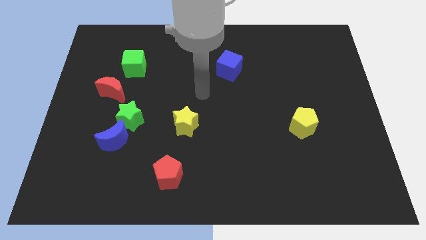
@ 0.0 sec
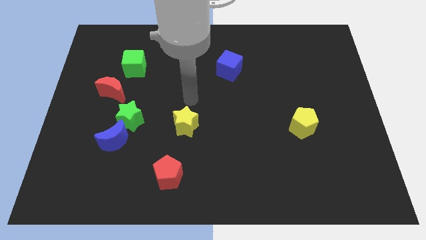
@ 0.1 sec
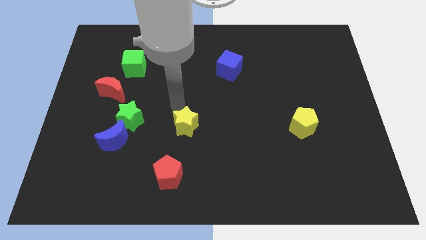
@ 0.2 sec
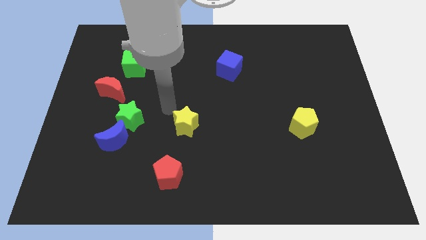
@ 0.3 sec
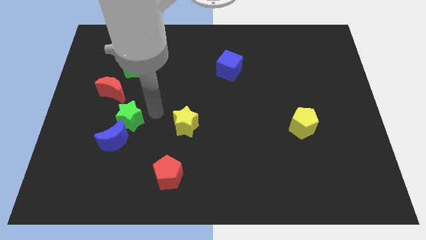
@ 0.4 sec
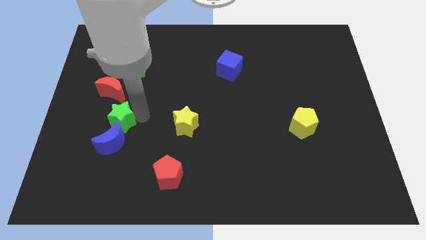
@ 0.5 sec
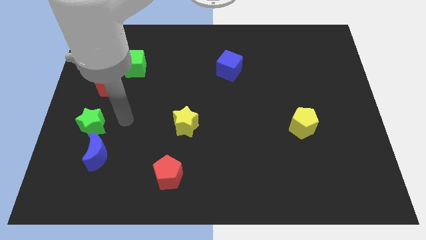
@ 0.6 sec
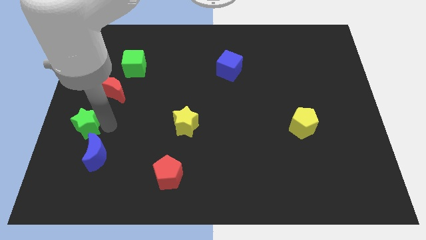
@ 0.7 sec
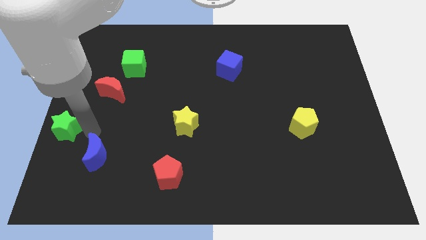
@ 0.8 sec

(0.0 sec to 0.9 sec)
separate the blue moon from the green star

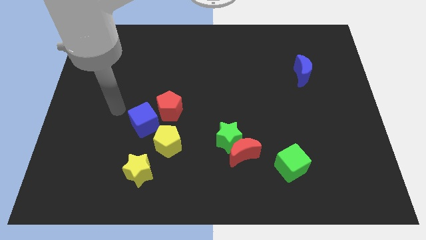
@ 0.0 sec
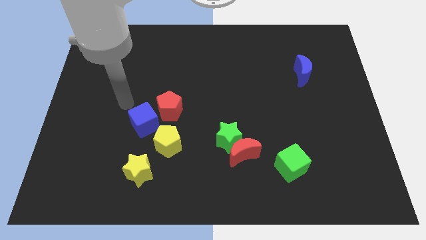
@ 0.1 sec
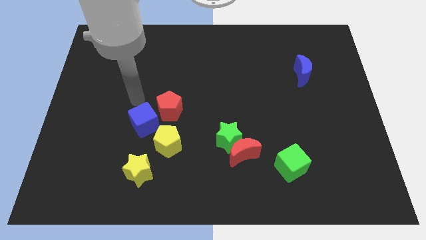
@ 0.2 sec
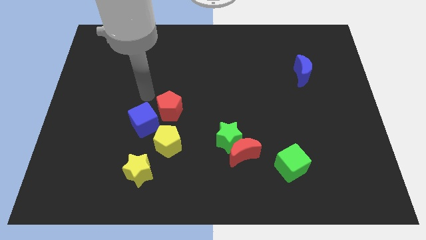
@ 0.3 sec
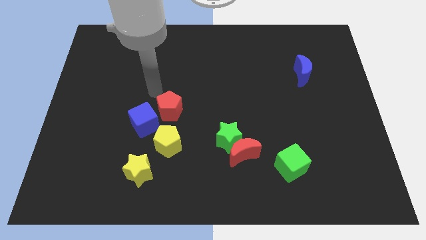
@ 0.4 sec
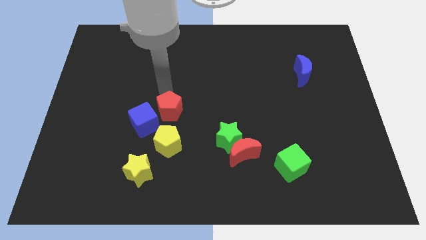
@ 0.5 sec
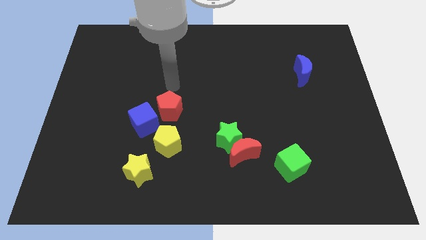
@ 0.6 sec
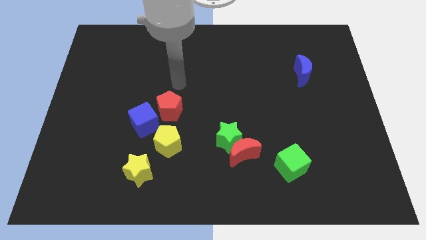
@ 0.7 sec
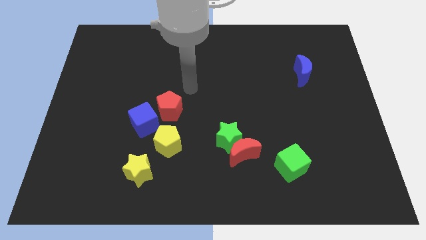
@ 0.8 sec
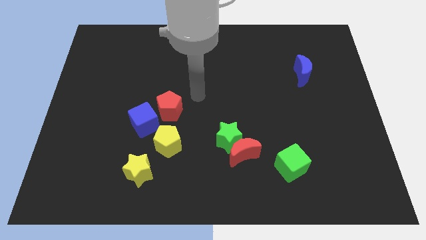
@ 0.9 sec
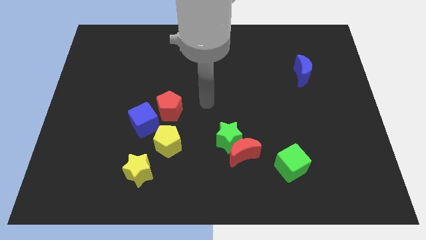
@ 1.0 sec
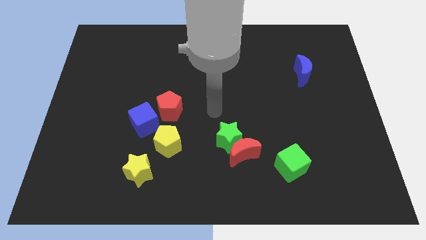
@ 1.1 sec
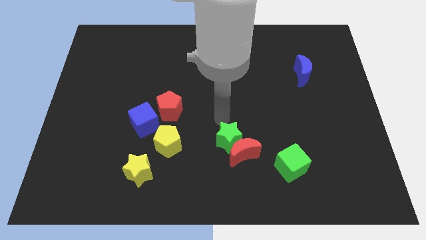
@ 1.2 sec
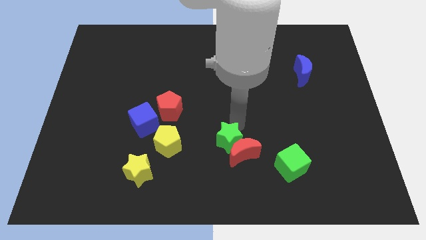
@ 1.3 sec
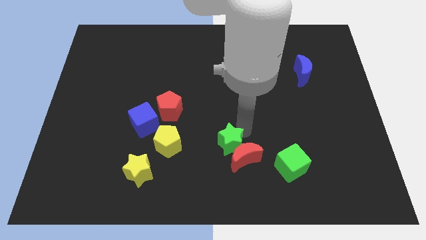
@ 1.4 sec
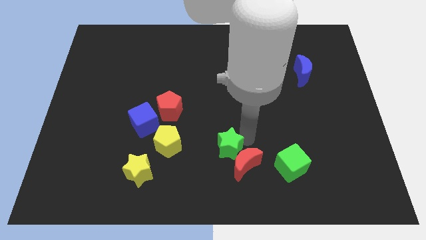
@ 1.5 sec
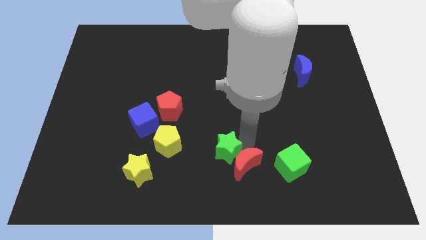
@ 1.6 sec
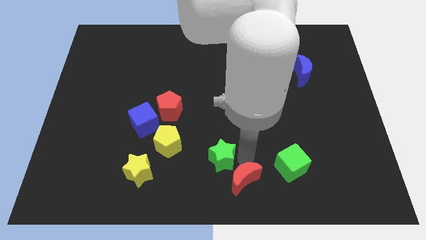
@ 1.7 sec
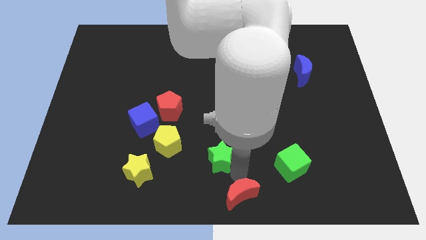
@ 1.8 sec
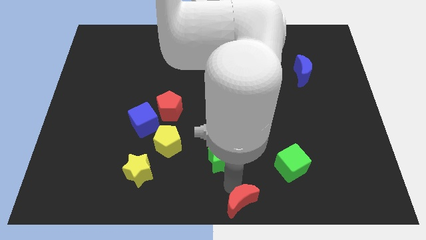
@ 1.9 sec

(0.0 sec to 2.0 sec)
move the green star away from the red moon

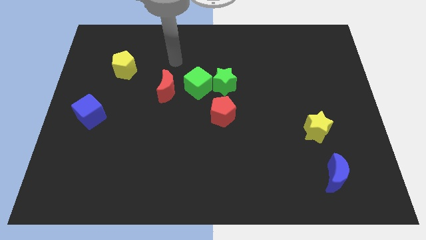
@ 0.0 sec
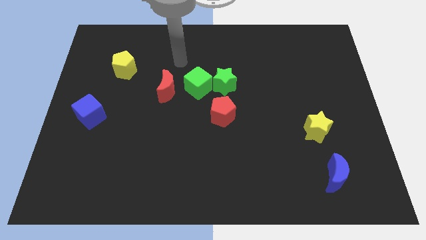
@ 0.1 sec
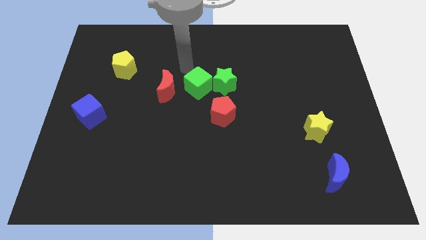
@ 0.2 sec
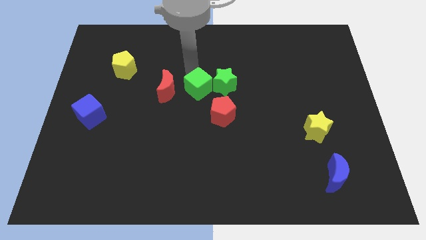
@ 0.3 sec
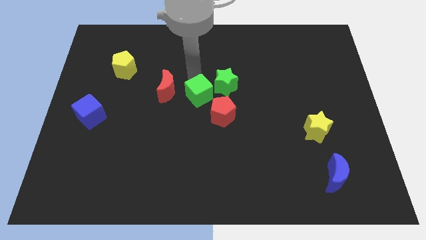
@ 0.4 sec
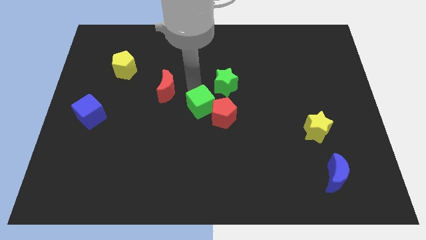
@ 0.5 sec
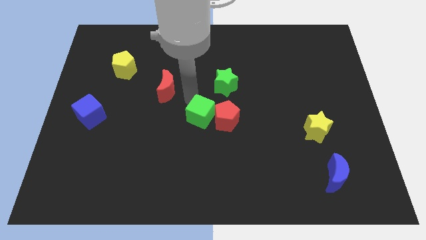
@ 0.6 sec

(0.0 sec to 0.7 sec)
separate the red moon from the green cube

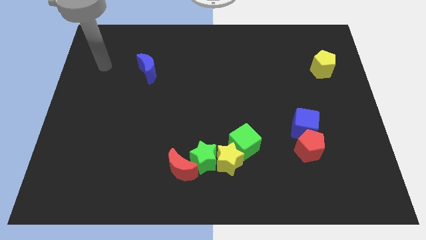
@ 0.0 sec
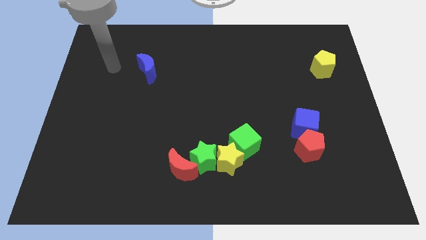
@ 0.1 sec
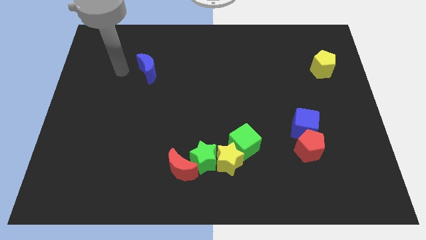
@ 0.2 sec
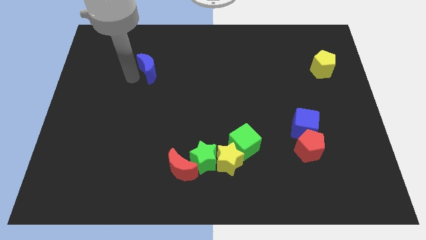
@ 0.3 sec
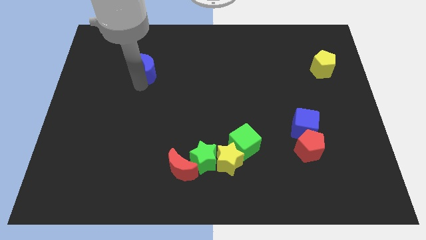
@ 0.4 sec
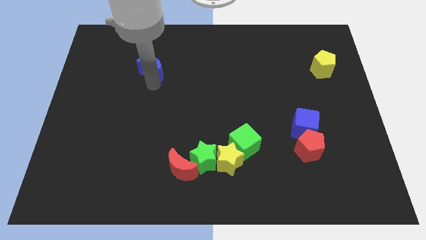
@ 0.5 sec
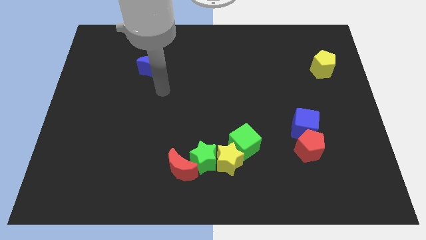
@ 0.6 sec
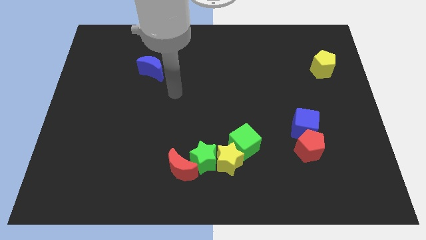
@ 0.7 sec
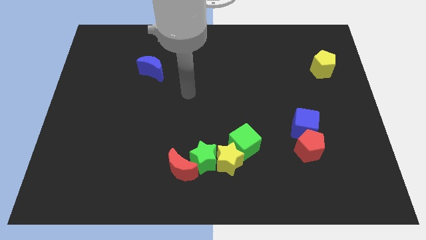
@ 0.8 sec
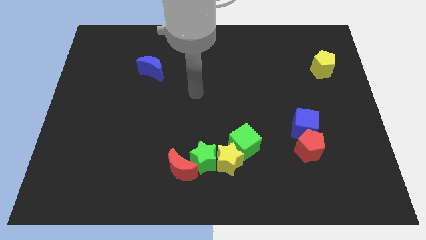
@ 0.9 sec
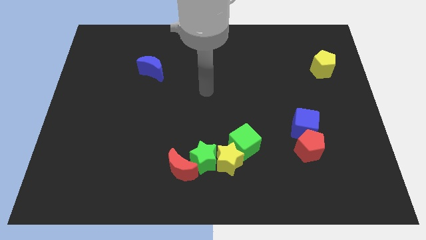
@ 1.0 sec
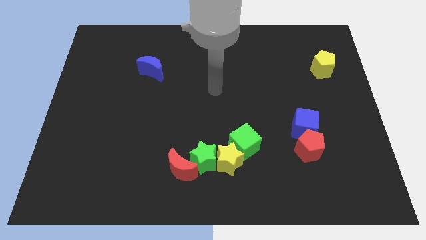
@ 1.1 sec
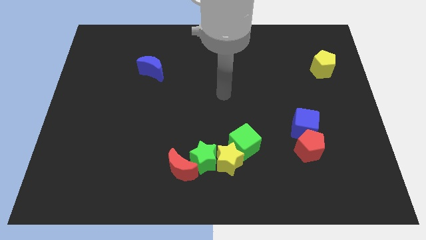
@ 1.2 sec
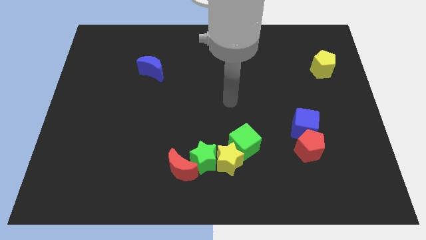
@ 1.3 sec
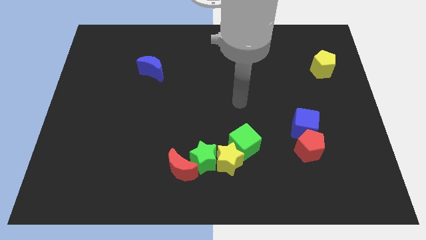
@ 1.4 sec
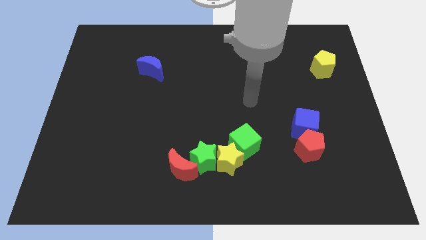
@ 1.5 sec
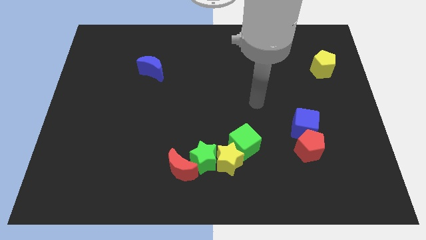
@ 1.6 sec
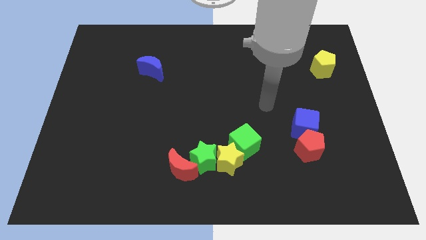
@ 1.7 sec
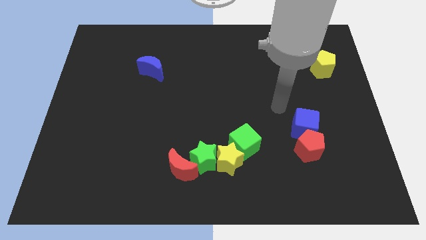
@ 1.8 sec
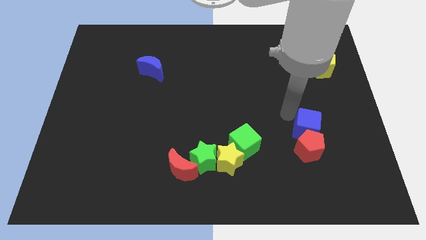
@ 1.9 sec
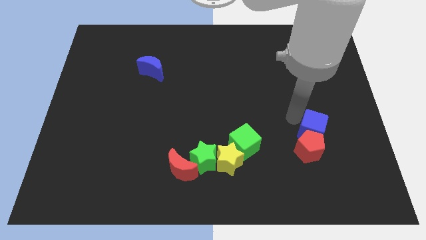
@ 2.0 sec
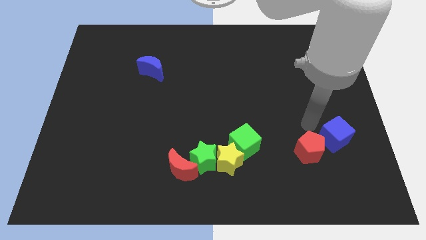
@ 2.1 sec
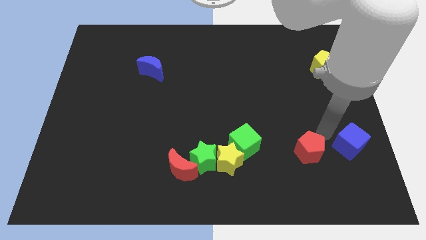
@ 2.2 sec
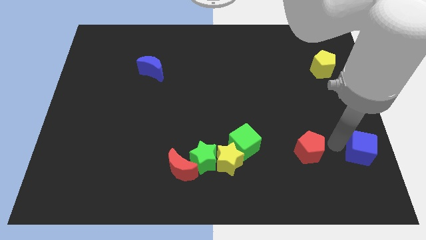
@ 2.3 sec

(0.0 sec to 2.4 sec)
pull the red pentagon apart from the blue cube

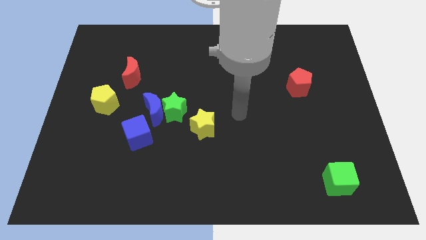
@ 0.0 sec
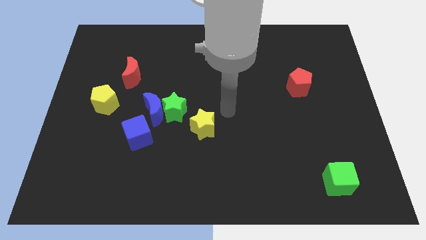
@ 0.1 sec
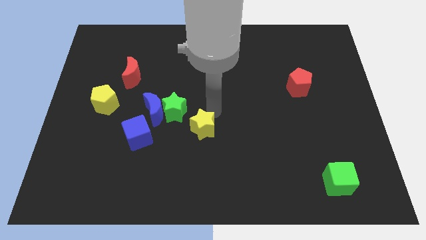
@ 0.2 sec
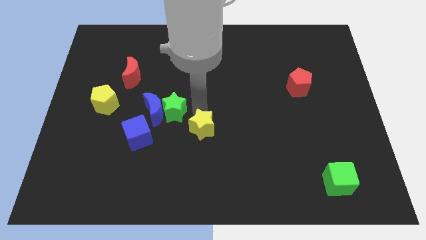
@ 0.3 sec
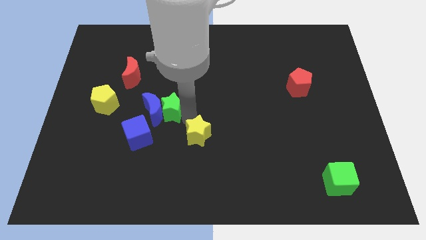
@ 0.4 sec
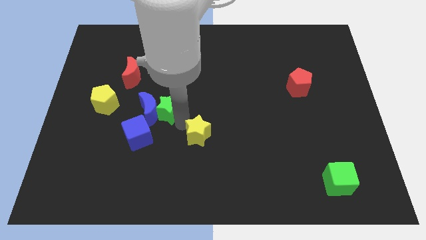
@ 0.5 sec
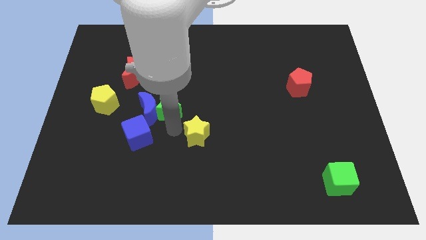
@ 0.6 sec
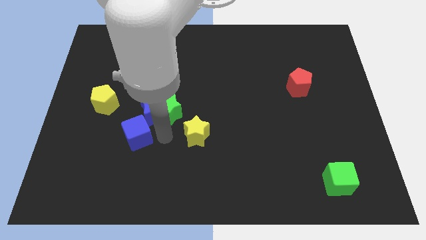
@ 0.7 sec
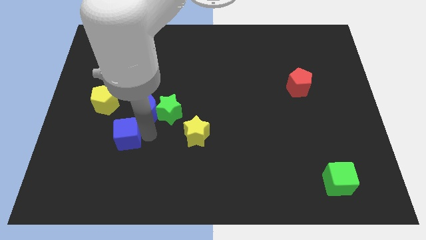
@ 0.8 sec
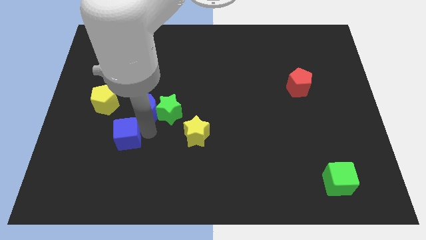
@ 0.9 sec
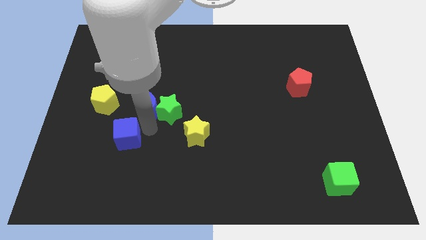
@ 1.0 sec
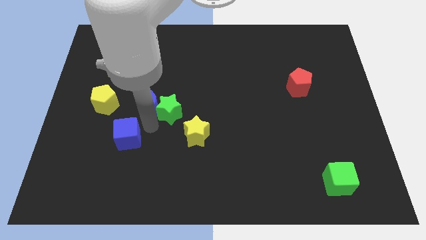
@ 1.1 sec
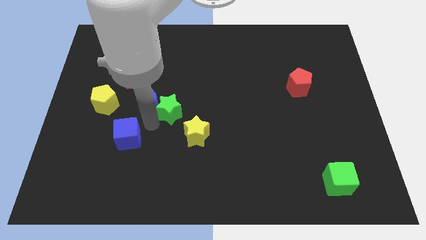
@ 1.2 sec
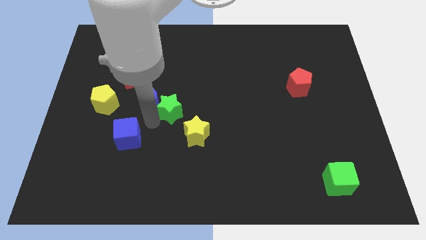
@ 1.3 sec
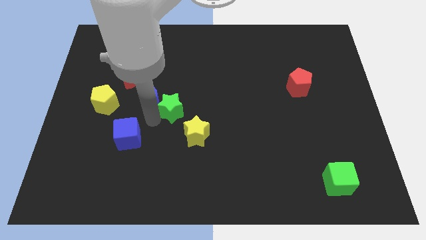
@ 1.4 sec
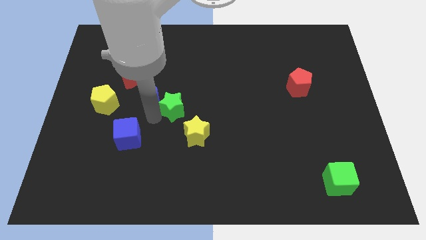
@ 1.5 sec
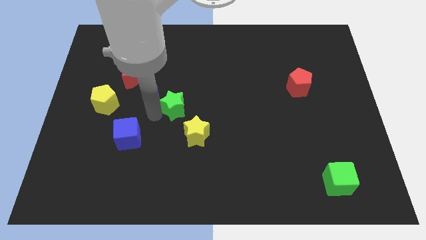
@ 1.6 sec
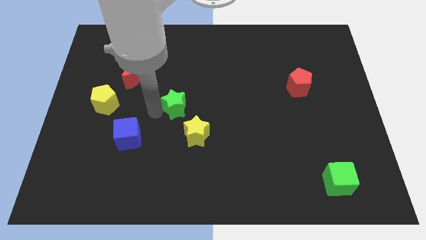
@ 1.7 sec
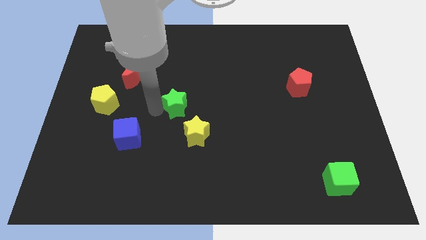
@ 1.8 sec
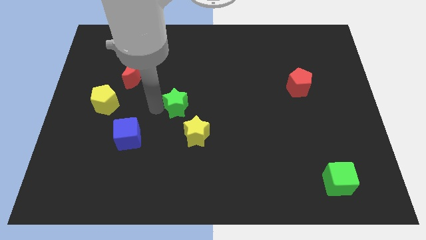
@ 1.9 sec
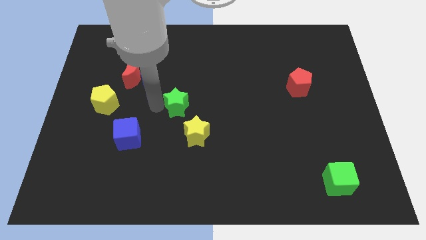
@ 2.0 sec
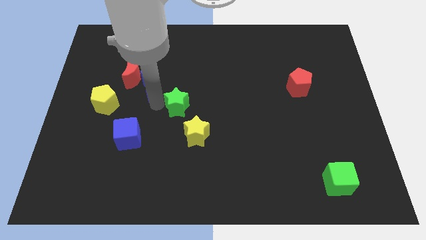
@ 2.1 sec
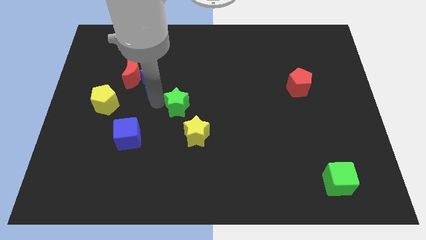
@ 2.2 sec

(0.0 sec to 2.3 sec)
separate the blue moon from the green star and blue cube

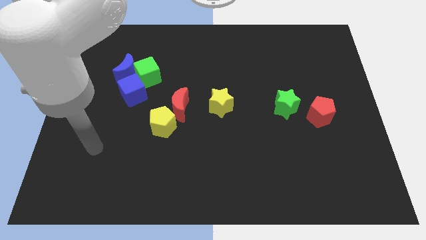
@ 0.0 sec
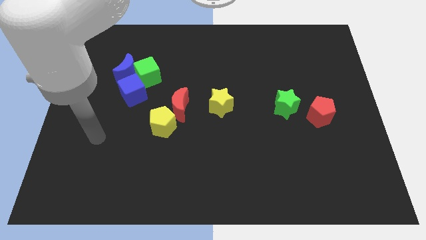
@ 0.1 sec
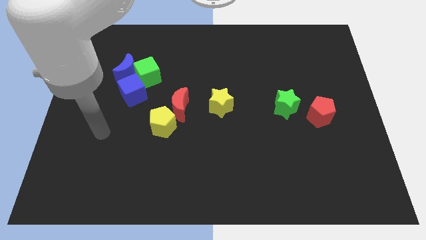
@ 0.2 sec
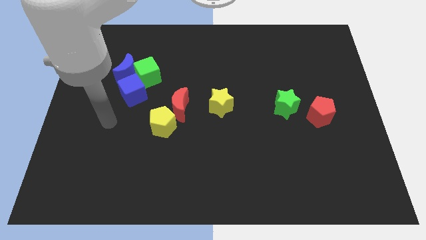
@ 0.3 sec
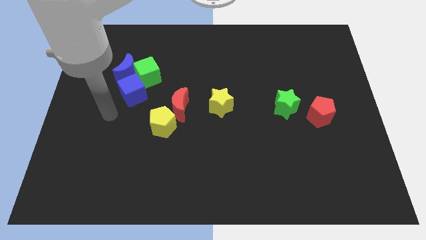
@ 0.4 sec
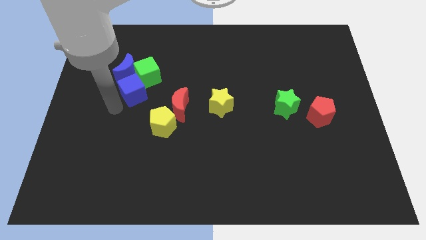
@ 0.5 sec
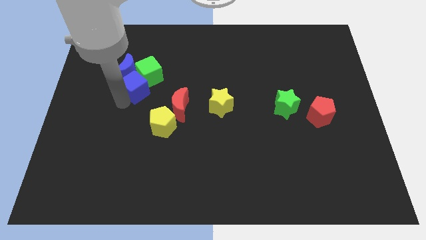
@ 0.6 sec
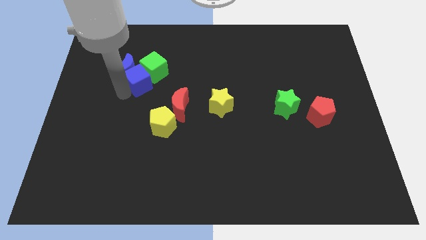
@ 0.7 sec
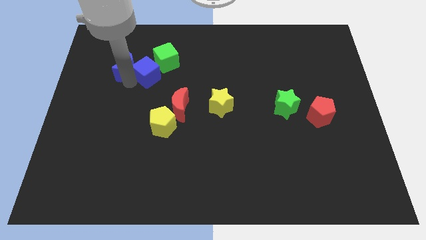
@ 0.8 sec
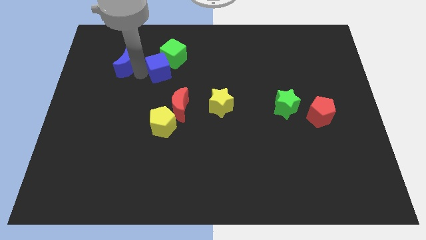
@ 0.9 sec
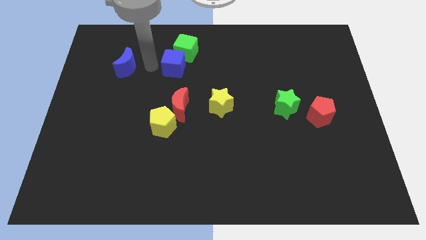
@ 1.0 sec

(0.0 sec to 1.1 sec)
pull the green cube apart from the blue moon and blue cube

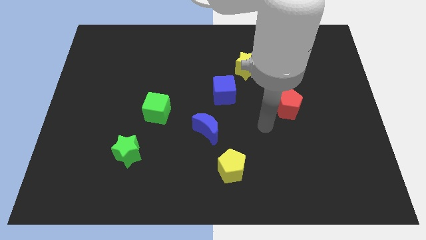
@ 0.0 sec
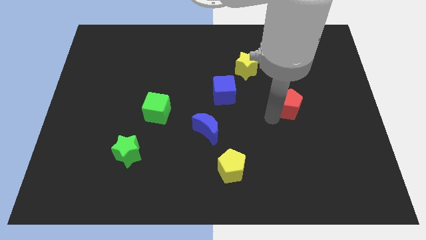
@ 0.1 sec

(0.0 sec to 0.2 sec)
move the red moon away from the yellow star
